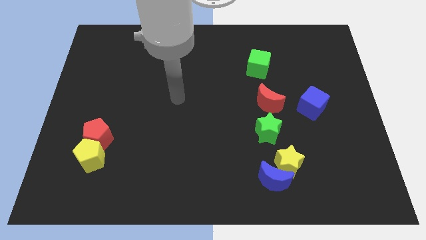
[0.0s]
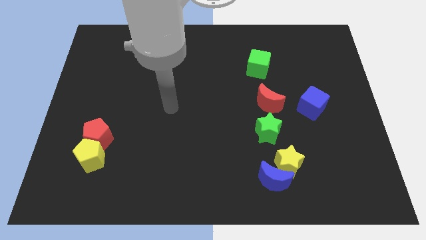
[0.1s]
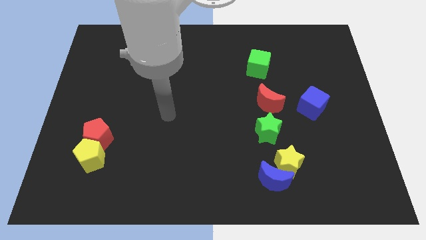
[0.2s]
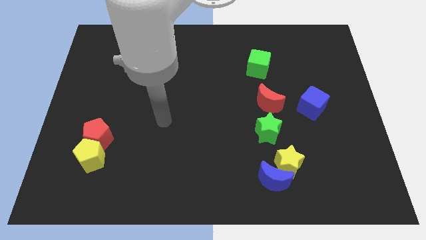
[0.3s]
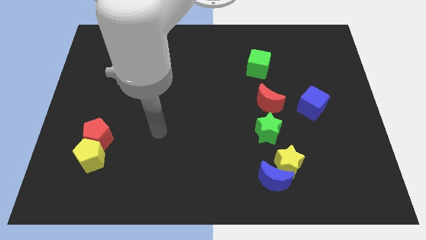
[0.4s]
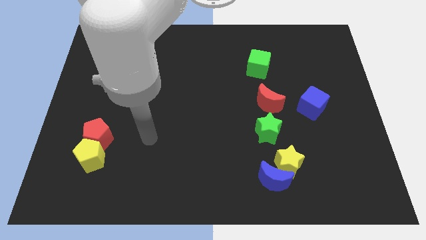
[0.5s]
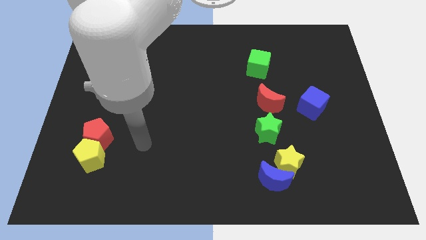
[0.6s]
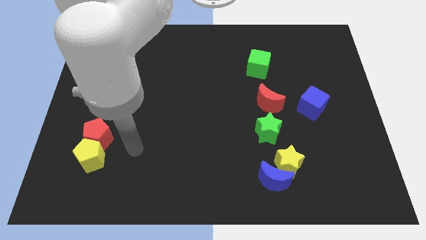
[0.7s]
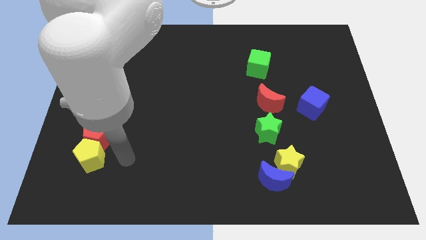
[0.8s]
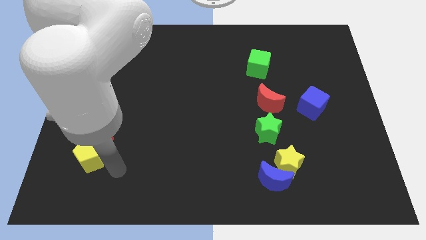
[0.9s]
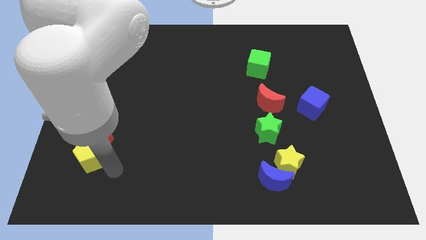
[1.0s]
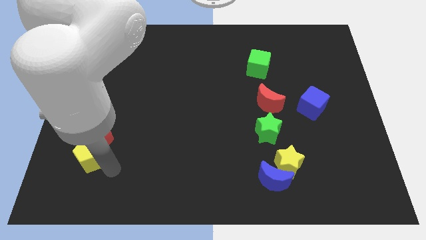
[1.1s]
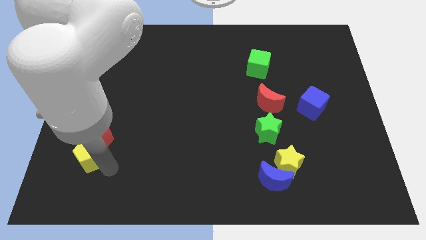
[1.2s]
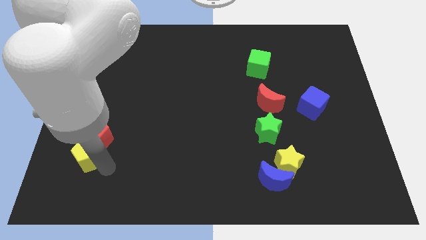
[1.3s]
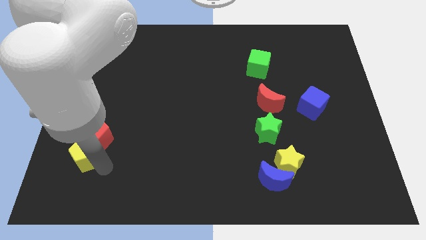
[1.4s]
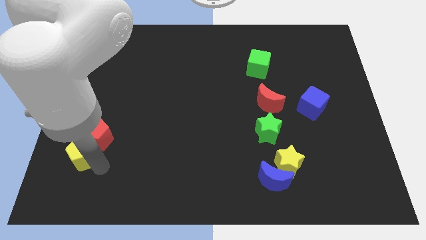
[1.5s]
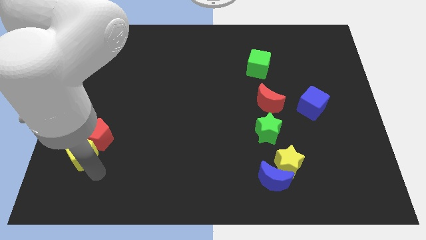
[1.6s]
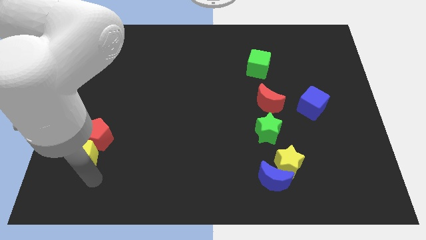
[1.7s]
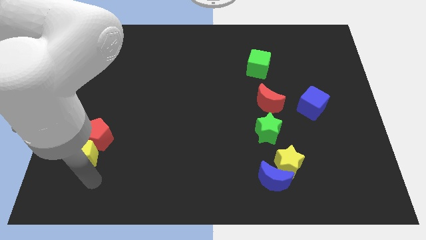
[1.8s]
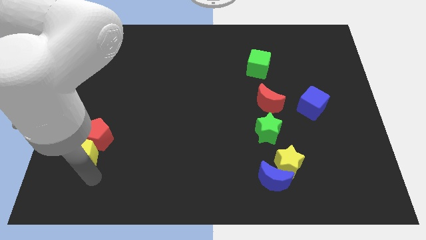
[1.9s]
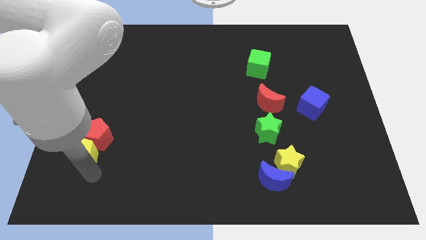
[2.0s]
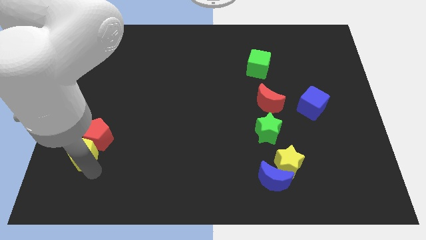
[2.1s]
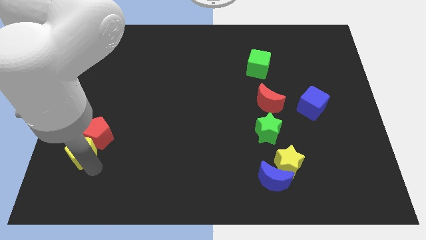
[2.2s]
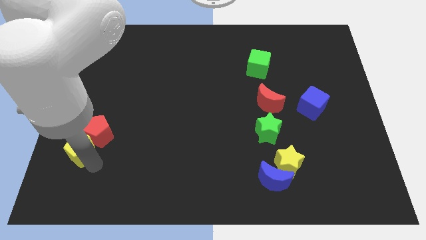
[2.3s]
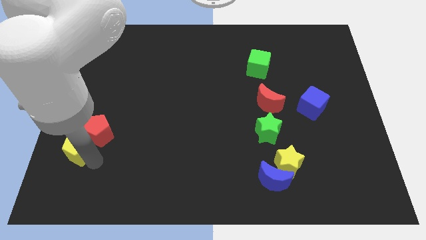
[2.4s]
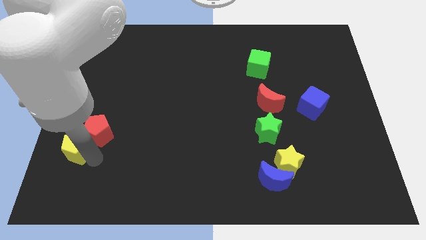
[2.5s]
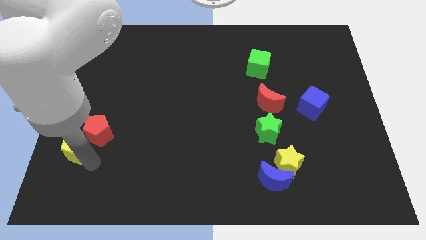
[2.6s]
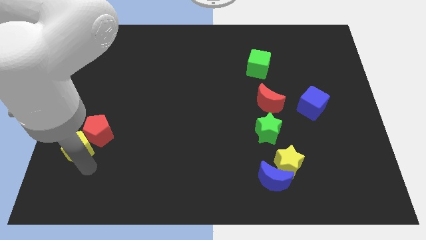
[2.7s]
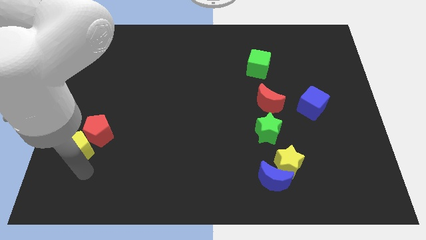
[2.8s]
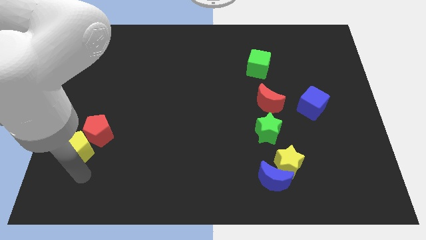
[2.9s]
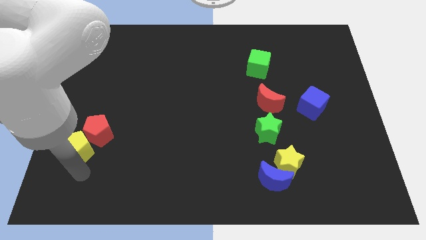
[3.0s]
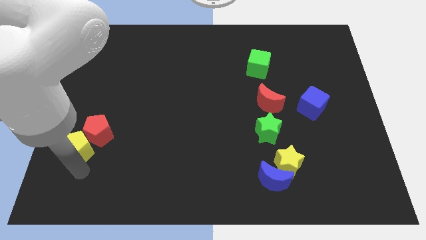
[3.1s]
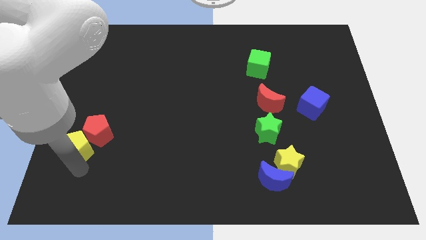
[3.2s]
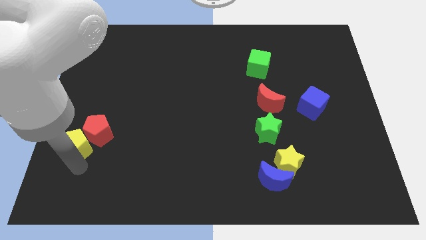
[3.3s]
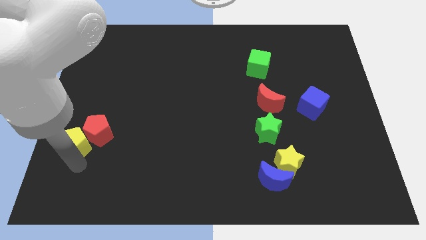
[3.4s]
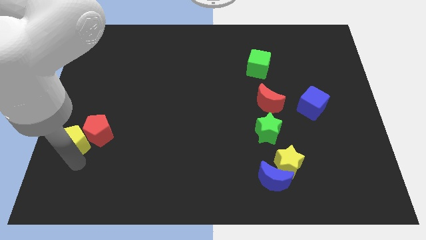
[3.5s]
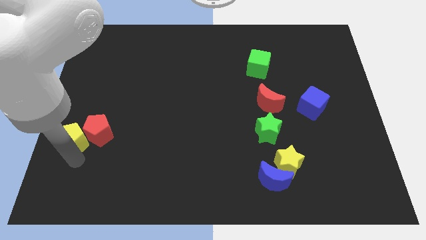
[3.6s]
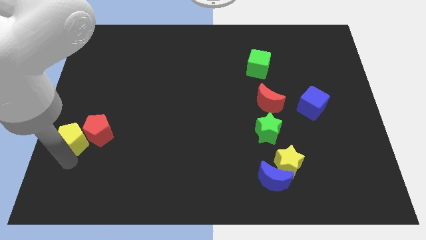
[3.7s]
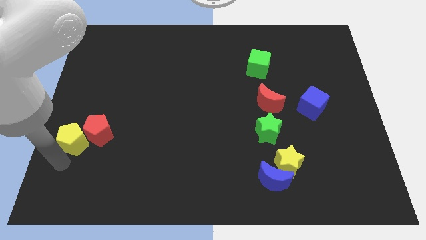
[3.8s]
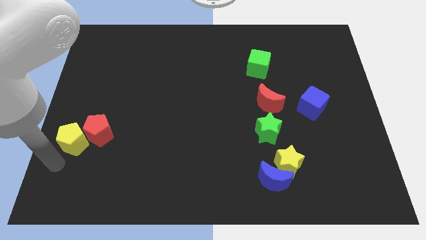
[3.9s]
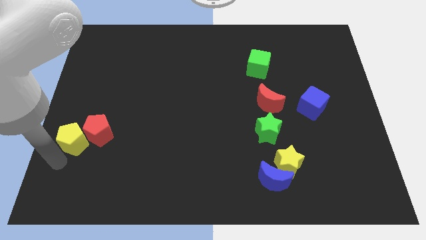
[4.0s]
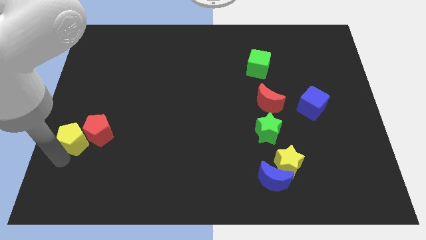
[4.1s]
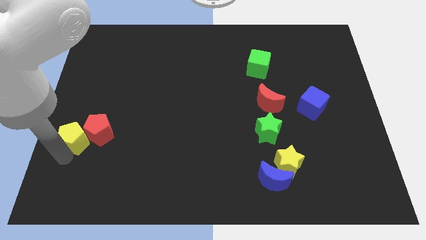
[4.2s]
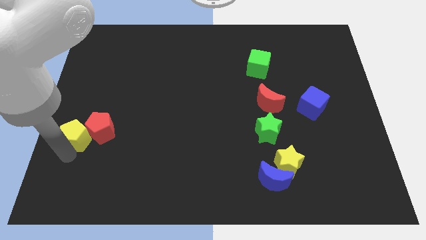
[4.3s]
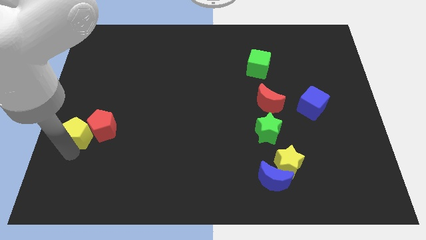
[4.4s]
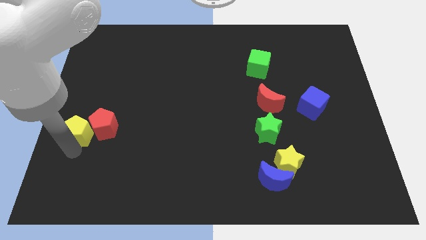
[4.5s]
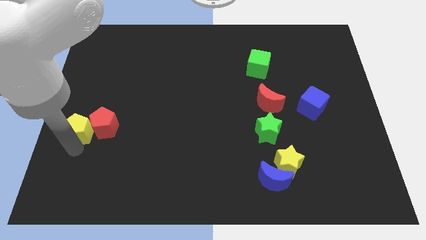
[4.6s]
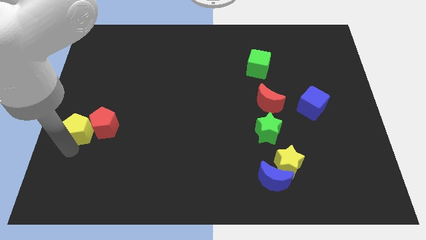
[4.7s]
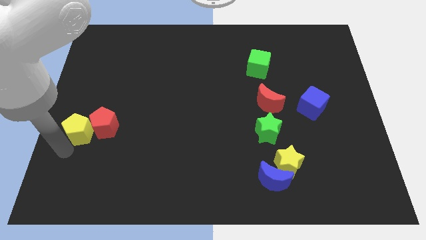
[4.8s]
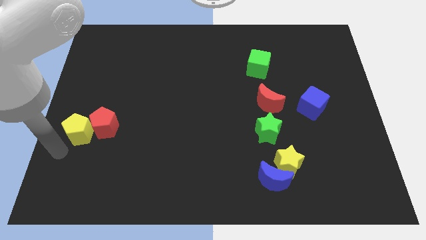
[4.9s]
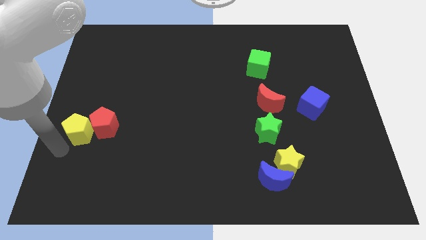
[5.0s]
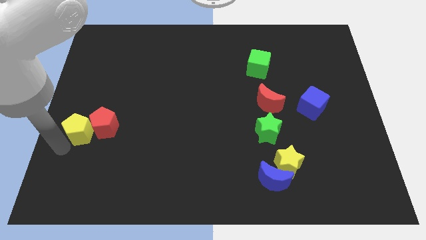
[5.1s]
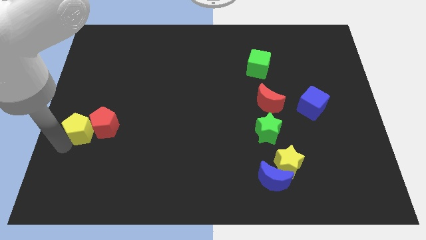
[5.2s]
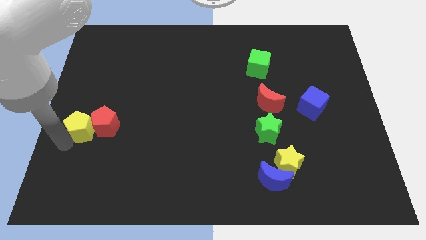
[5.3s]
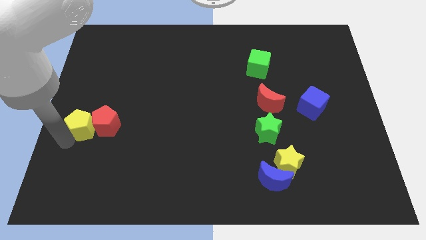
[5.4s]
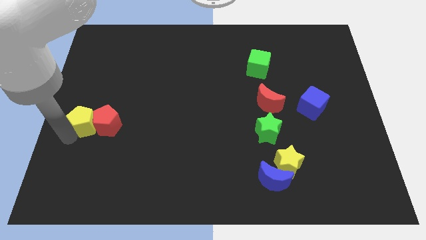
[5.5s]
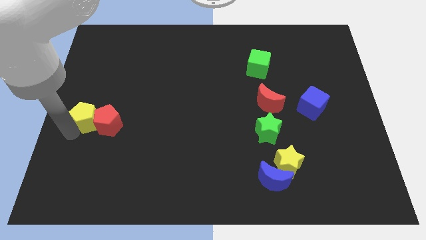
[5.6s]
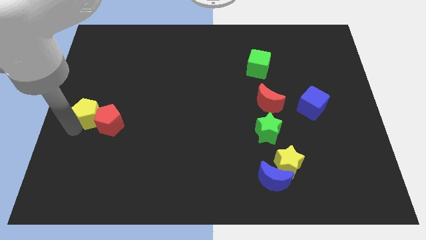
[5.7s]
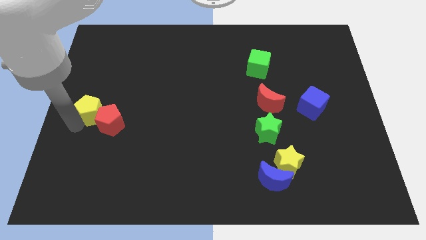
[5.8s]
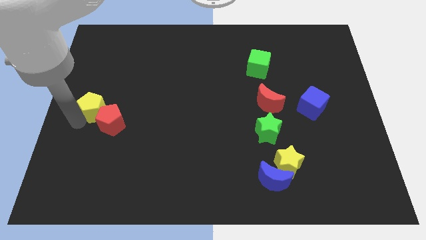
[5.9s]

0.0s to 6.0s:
put the yellow pentagon to the top of the red pentagon

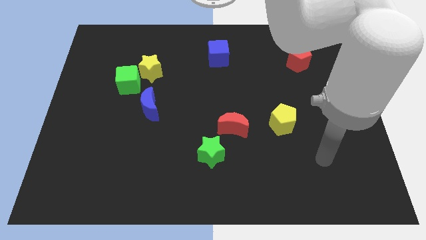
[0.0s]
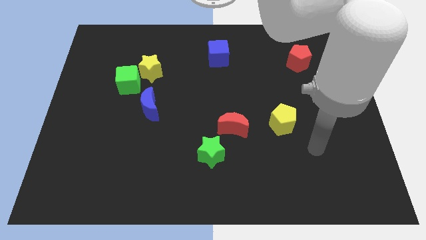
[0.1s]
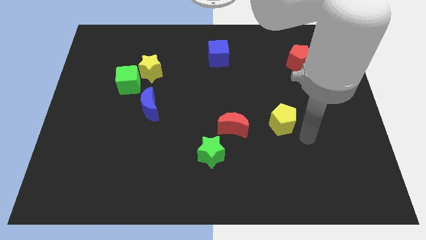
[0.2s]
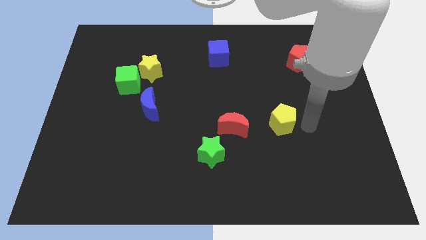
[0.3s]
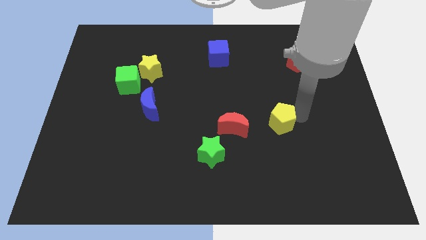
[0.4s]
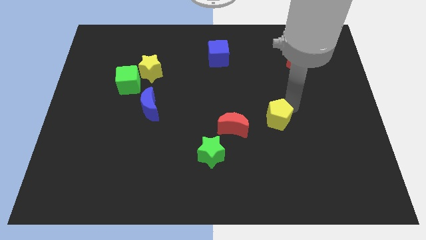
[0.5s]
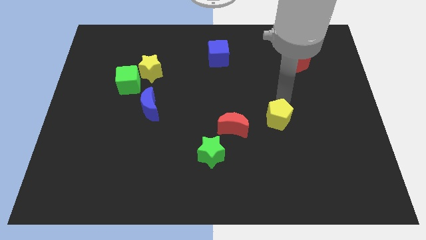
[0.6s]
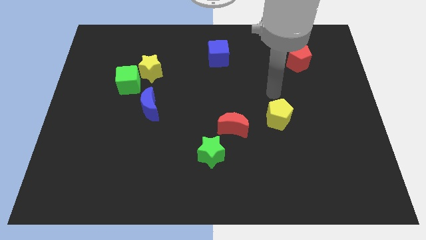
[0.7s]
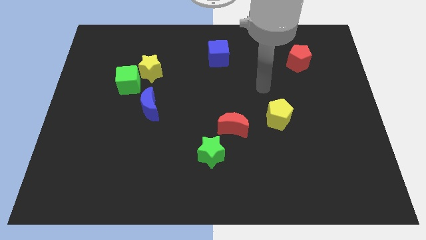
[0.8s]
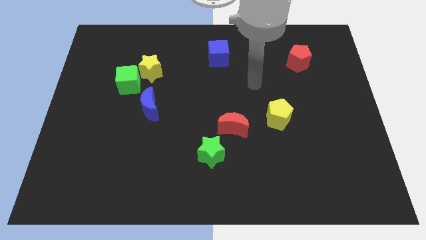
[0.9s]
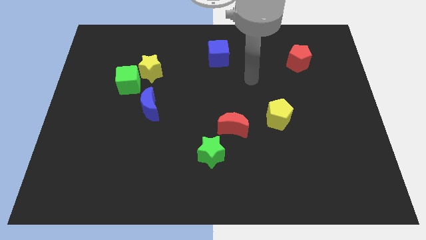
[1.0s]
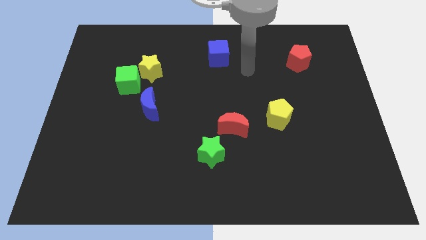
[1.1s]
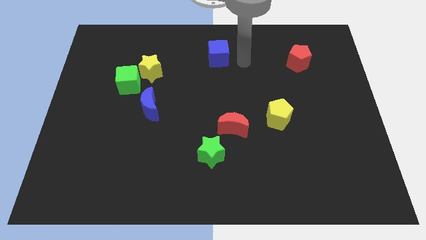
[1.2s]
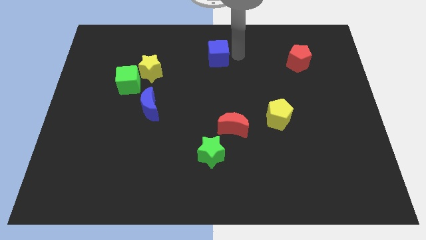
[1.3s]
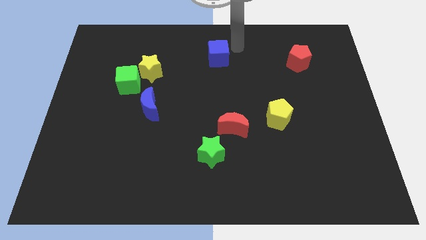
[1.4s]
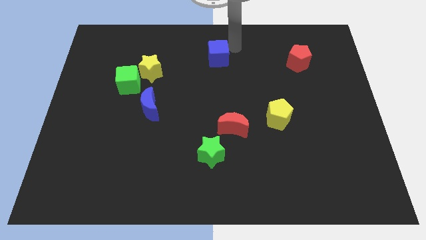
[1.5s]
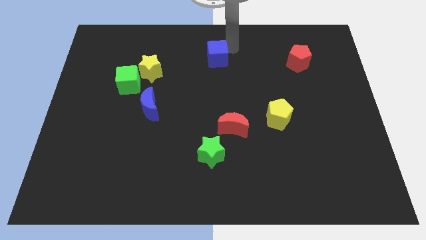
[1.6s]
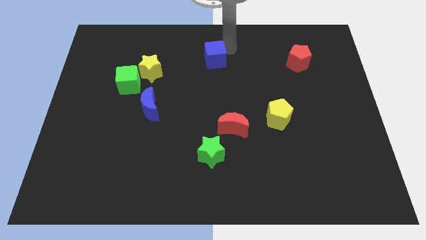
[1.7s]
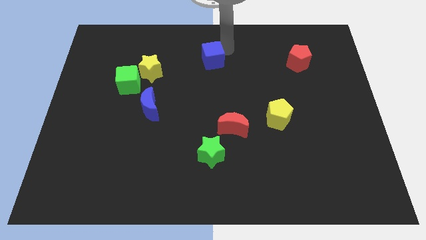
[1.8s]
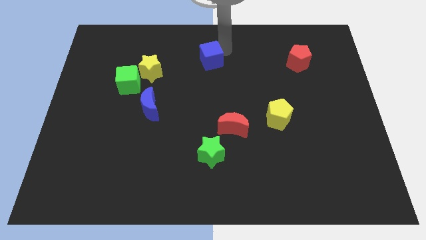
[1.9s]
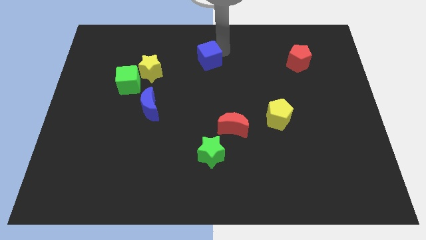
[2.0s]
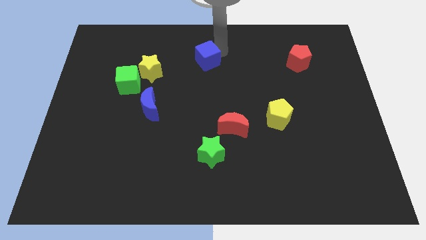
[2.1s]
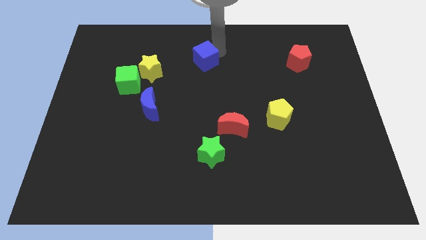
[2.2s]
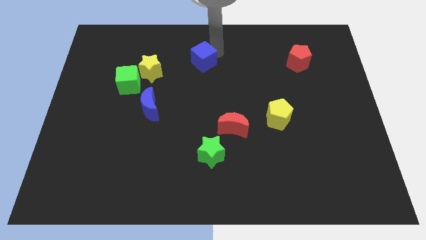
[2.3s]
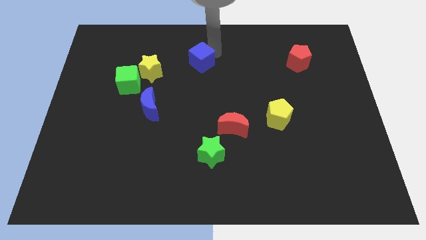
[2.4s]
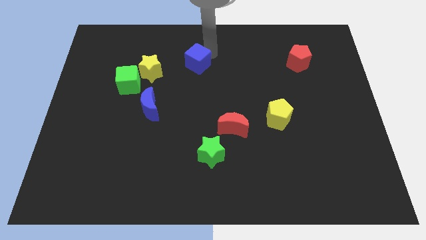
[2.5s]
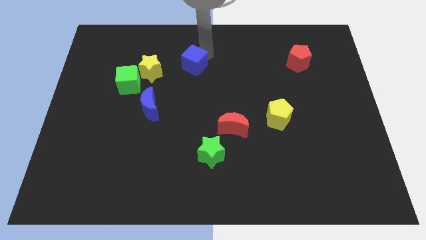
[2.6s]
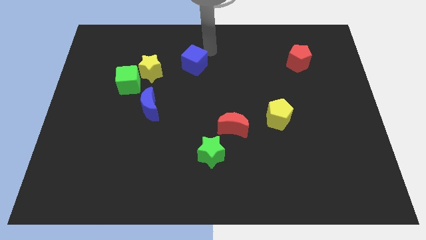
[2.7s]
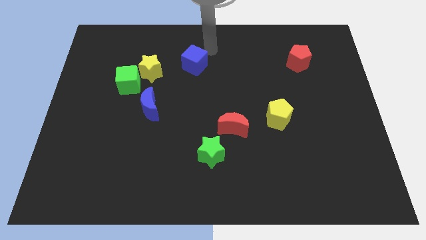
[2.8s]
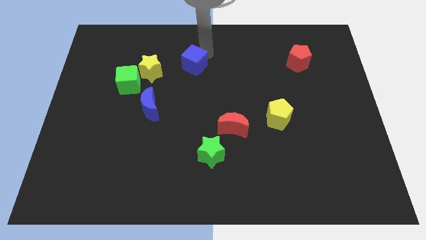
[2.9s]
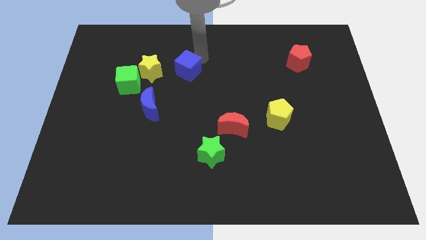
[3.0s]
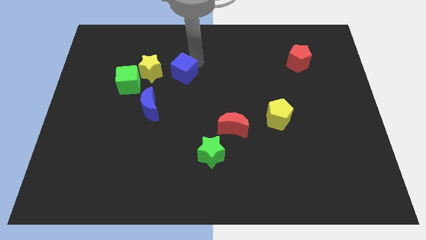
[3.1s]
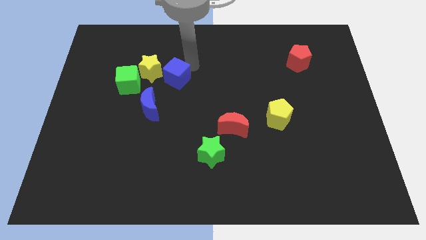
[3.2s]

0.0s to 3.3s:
move the blue cube to the bottom right side of the yellow star
